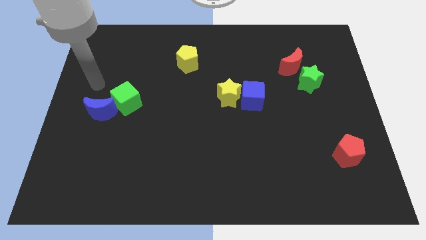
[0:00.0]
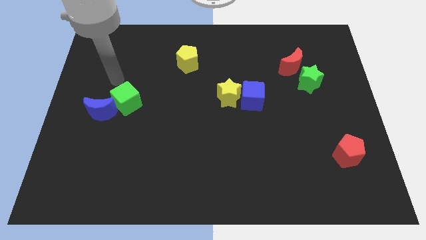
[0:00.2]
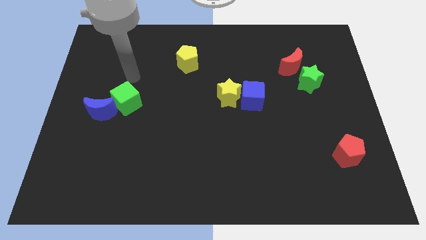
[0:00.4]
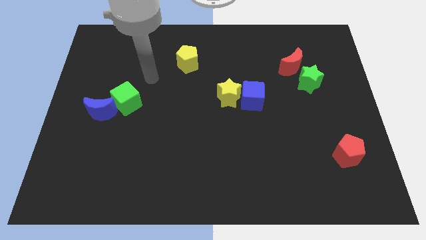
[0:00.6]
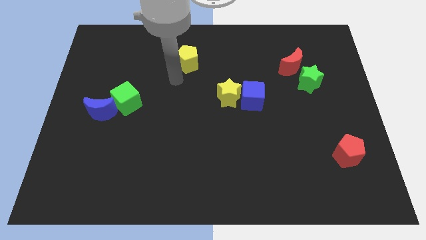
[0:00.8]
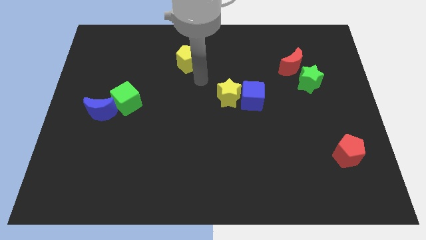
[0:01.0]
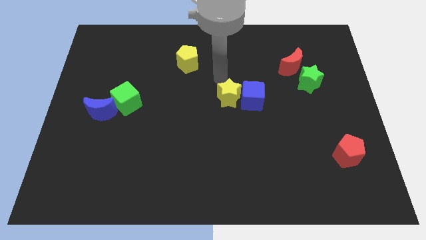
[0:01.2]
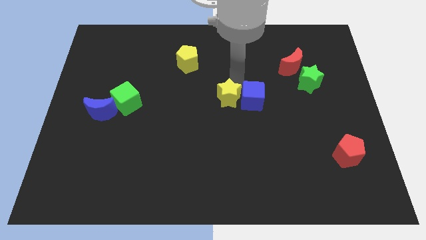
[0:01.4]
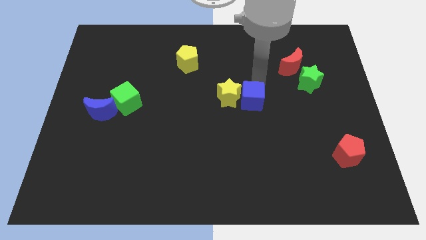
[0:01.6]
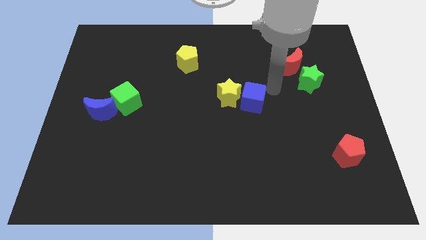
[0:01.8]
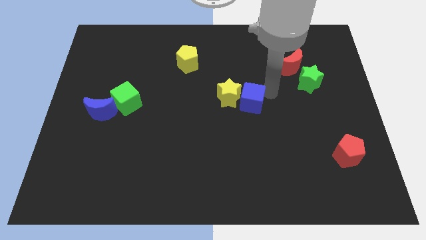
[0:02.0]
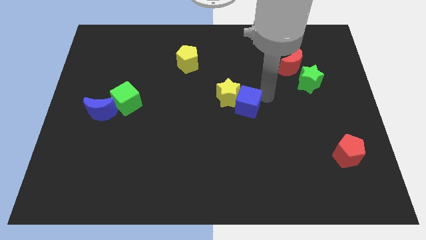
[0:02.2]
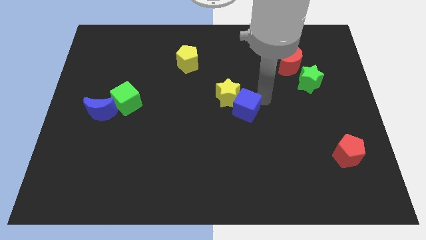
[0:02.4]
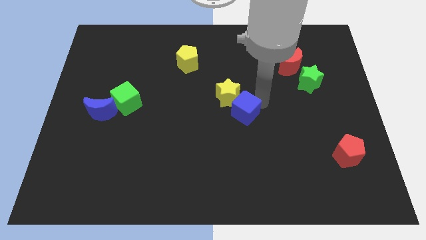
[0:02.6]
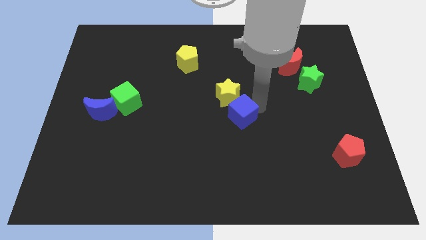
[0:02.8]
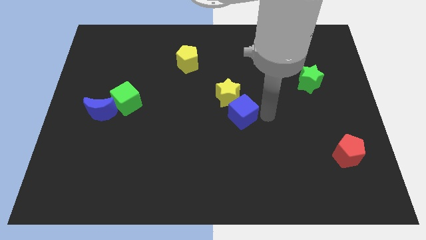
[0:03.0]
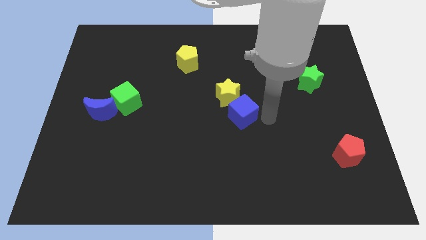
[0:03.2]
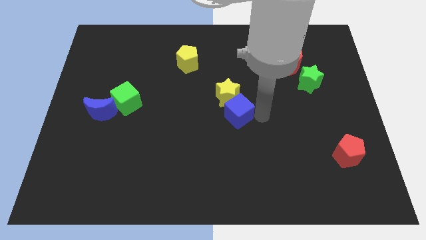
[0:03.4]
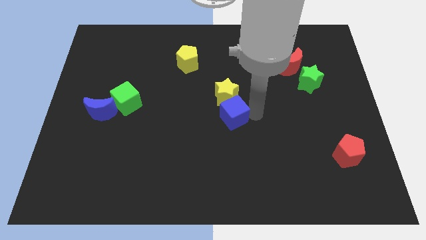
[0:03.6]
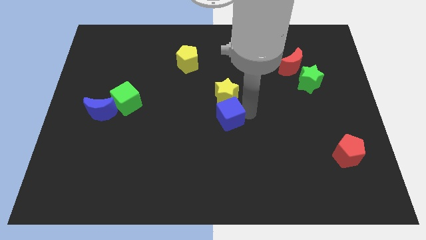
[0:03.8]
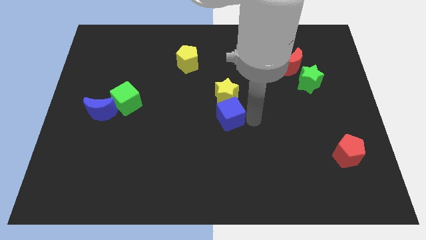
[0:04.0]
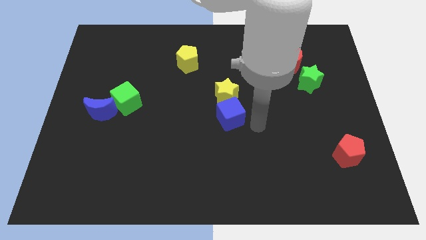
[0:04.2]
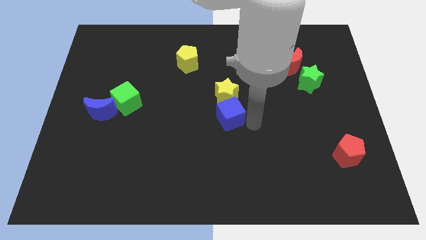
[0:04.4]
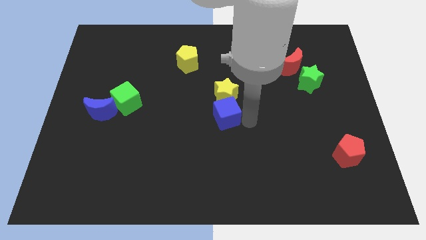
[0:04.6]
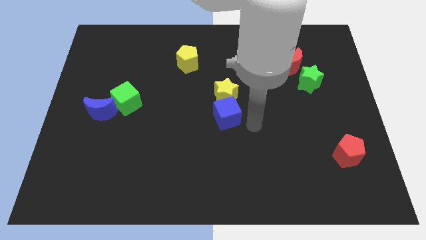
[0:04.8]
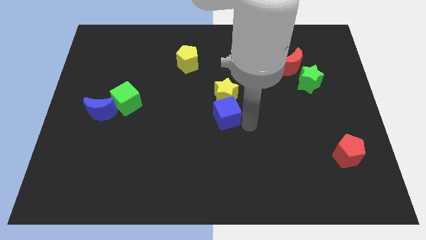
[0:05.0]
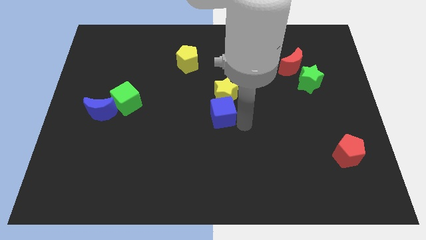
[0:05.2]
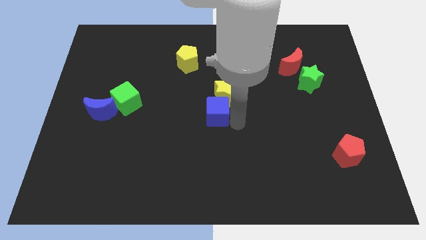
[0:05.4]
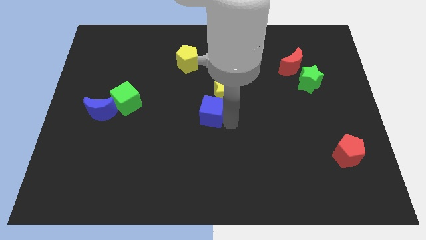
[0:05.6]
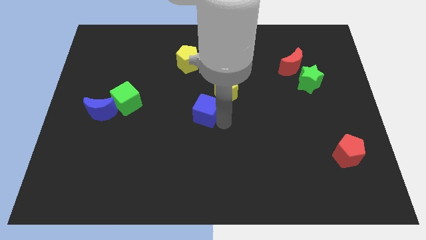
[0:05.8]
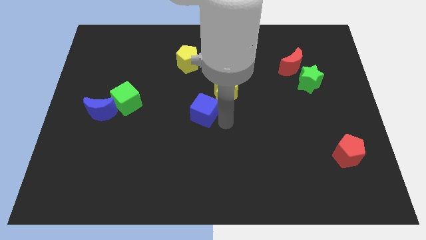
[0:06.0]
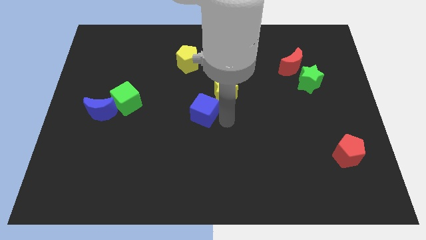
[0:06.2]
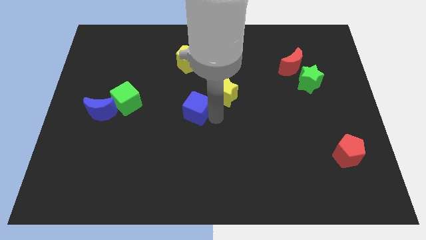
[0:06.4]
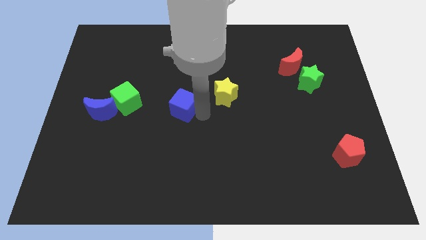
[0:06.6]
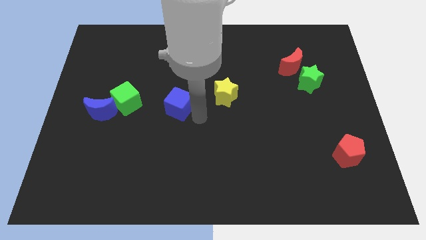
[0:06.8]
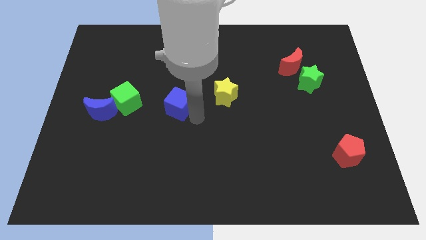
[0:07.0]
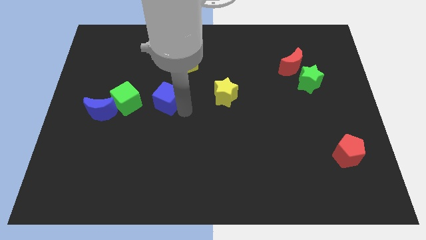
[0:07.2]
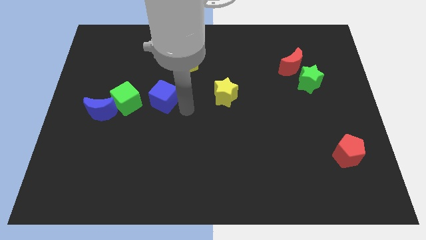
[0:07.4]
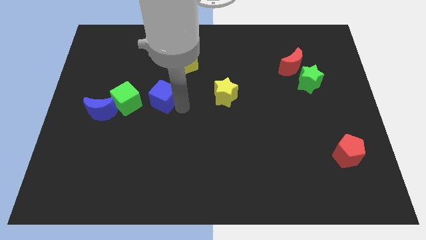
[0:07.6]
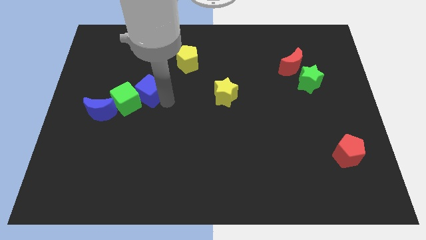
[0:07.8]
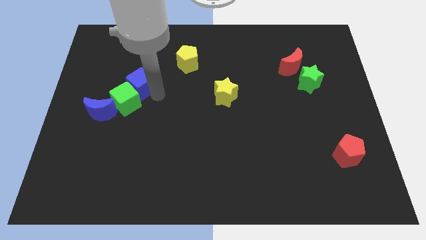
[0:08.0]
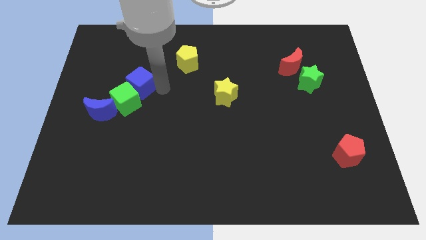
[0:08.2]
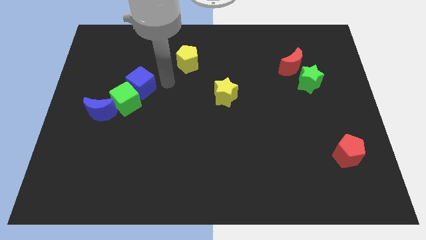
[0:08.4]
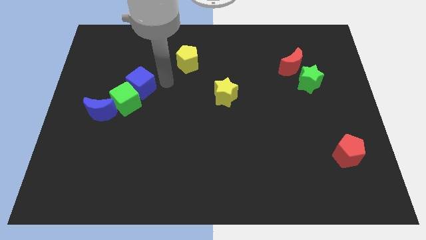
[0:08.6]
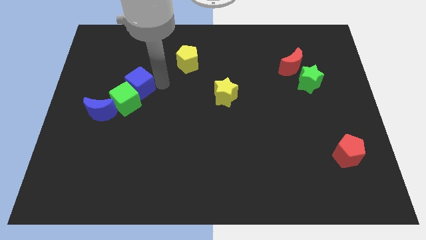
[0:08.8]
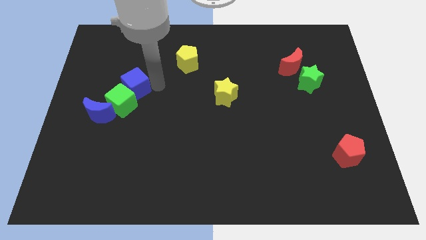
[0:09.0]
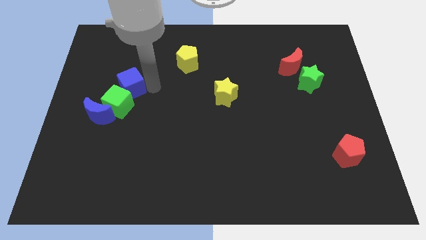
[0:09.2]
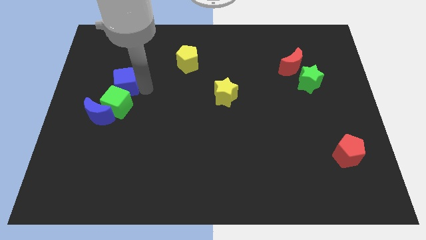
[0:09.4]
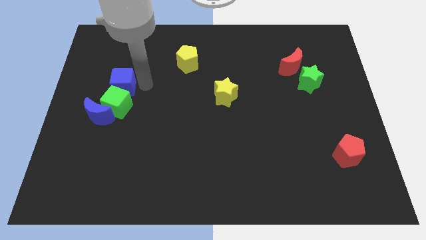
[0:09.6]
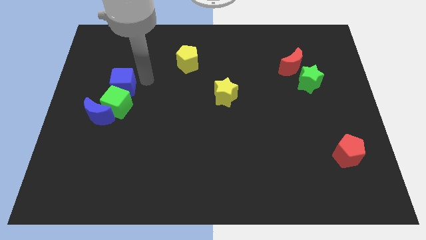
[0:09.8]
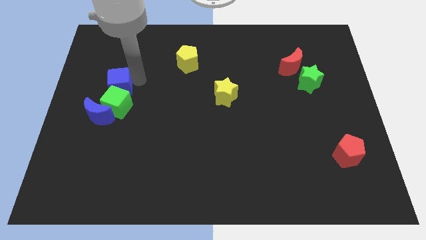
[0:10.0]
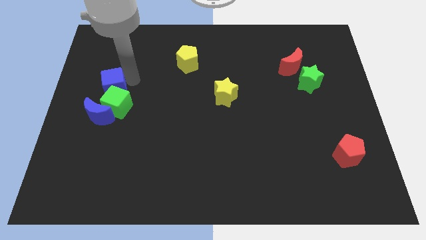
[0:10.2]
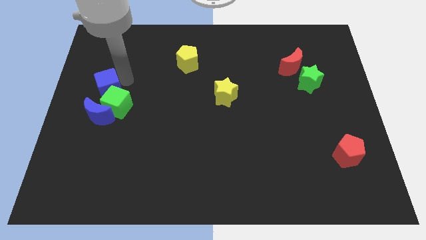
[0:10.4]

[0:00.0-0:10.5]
slide the blue cube to the left side of the board

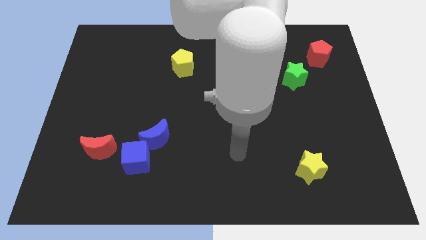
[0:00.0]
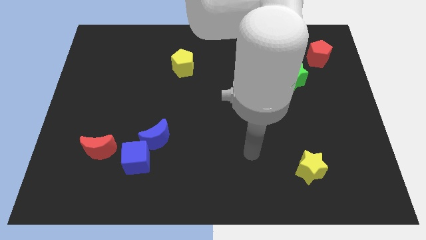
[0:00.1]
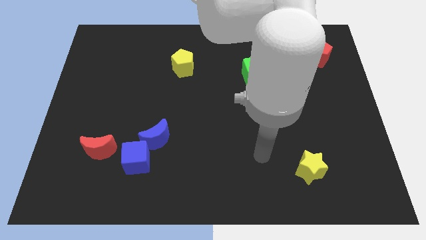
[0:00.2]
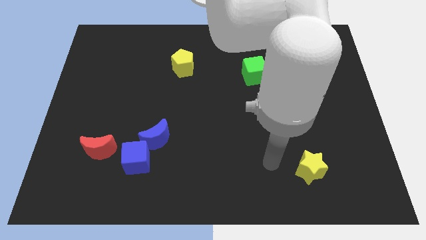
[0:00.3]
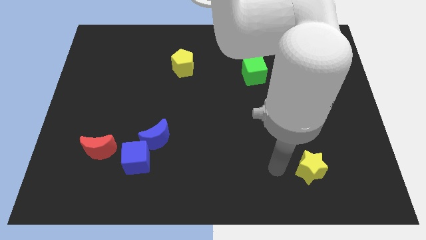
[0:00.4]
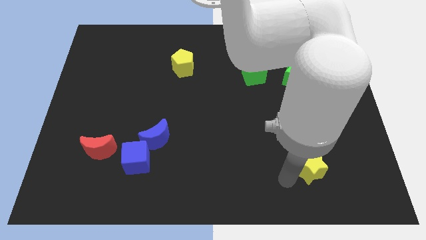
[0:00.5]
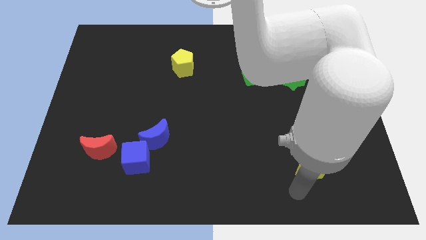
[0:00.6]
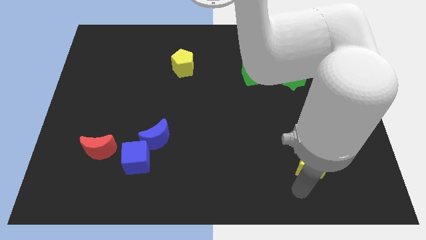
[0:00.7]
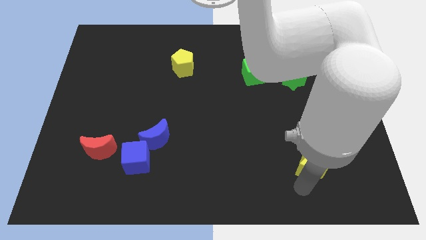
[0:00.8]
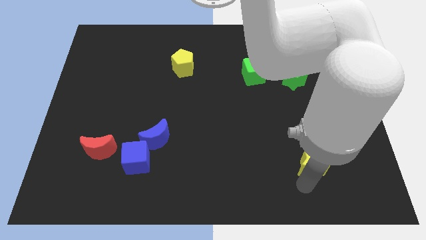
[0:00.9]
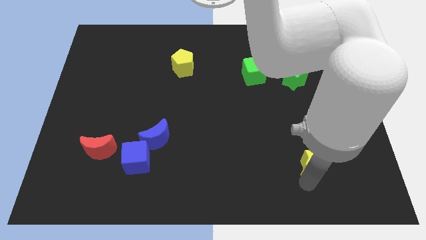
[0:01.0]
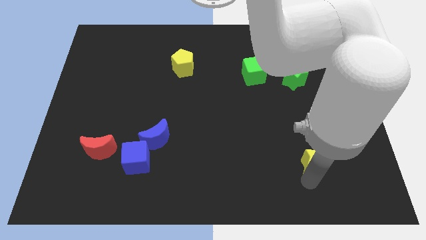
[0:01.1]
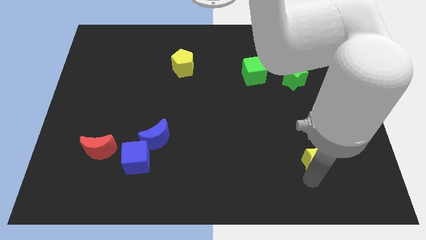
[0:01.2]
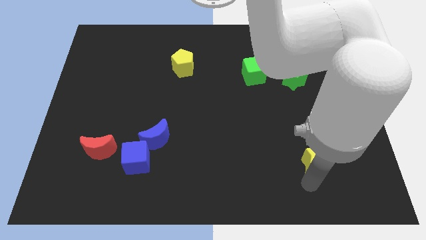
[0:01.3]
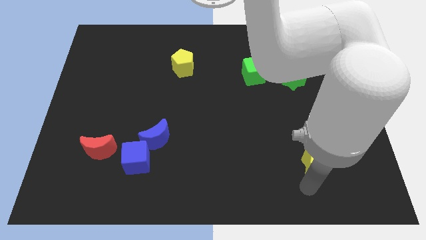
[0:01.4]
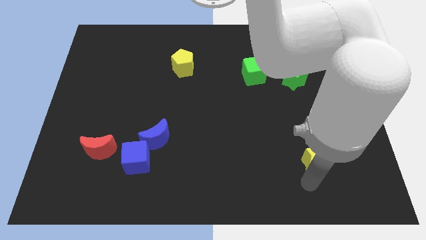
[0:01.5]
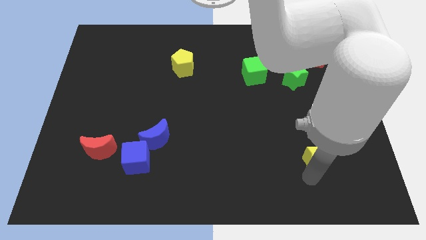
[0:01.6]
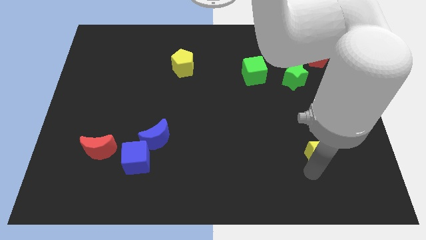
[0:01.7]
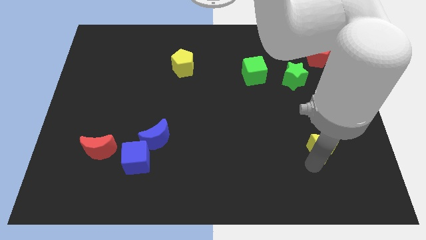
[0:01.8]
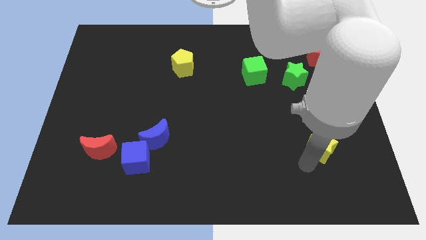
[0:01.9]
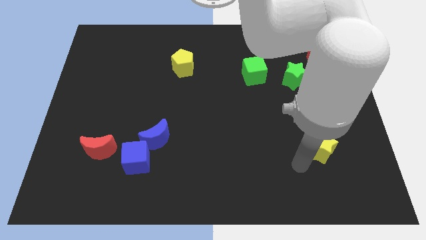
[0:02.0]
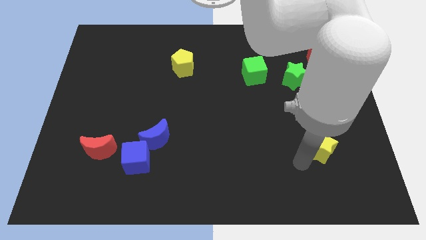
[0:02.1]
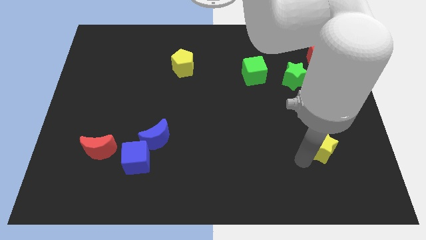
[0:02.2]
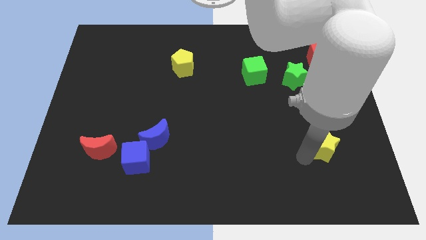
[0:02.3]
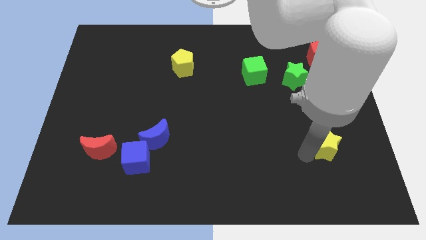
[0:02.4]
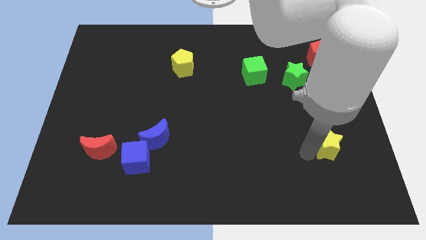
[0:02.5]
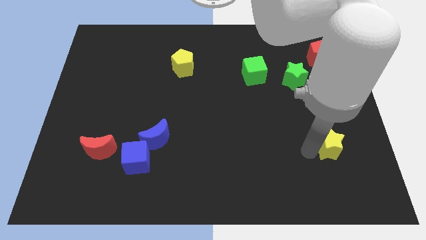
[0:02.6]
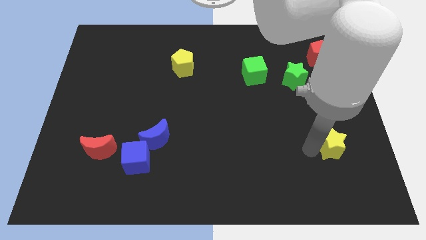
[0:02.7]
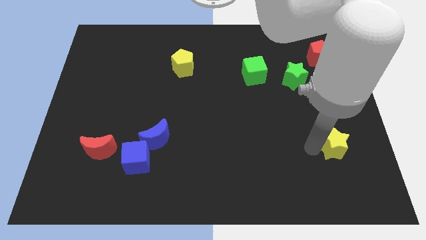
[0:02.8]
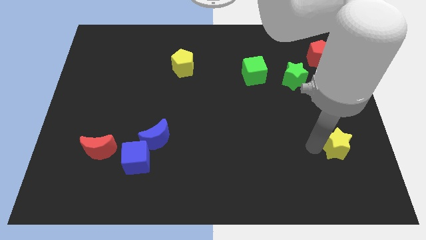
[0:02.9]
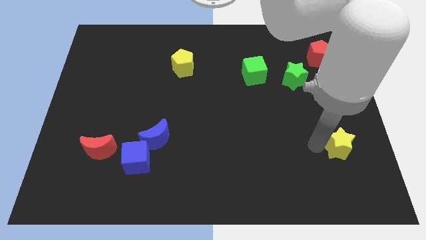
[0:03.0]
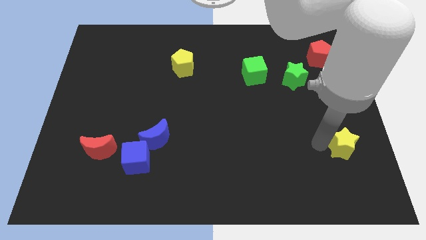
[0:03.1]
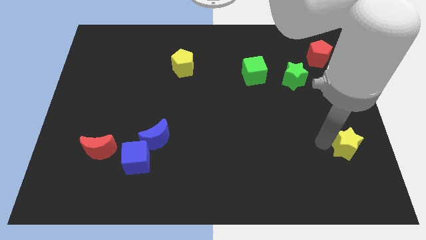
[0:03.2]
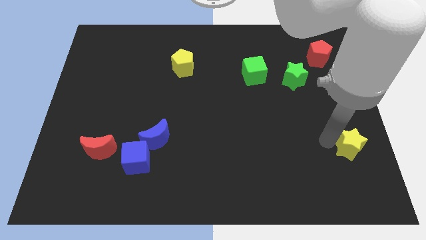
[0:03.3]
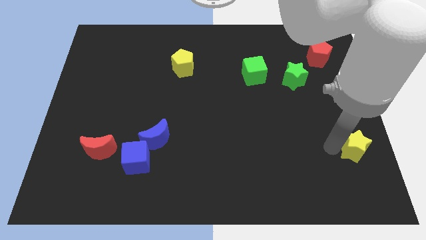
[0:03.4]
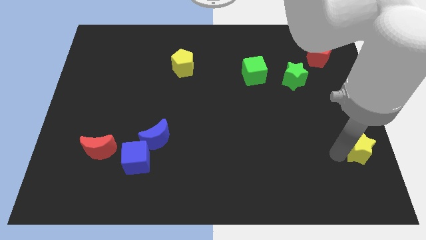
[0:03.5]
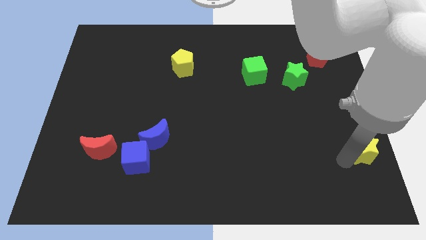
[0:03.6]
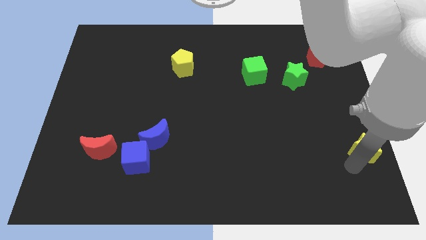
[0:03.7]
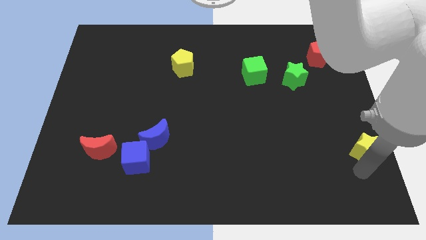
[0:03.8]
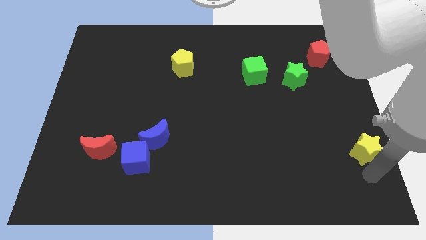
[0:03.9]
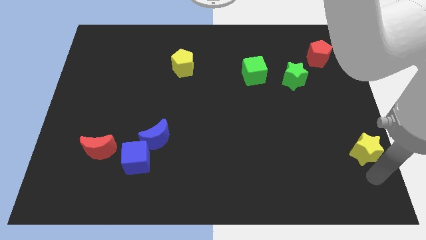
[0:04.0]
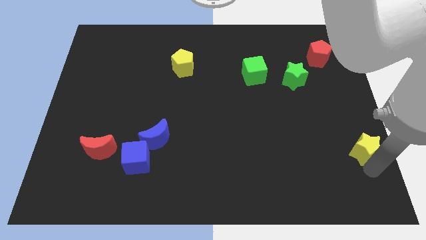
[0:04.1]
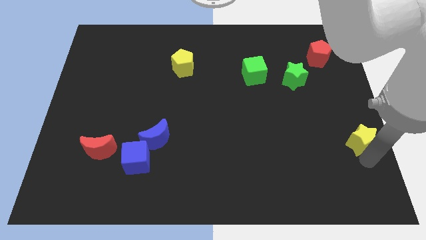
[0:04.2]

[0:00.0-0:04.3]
move the yellow star to the right side
